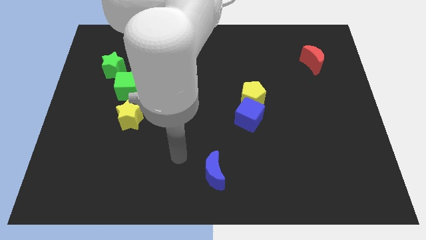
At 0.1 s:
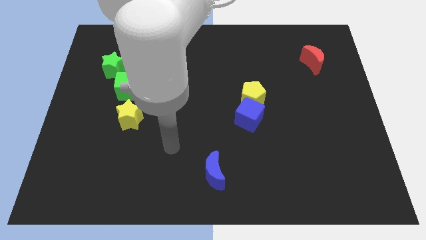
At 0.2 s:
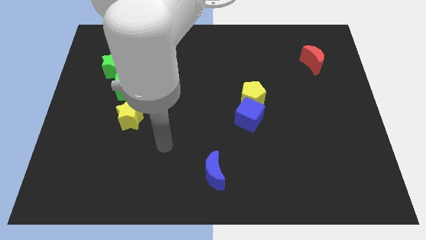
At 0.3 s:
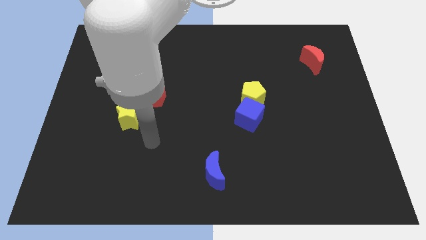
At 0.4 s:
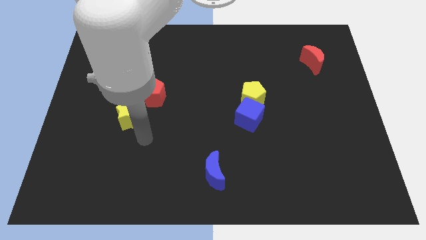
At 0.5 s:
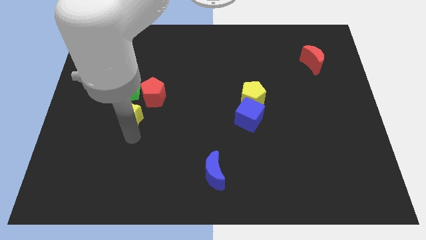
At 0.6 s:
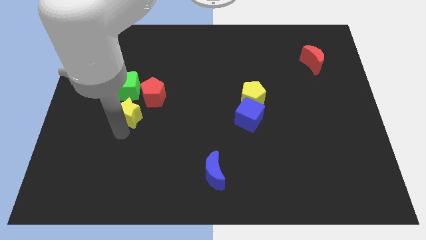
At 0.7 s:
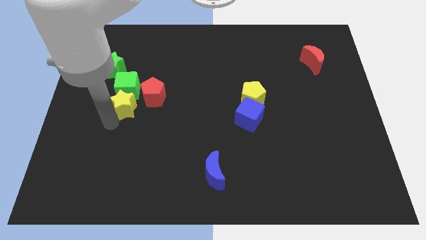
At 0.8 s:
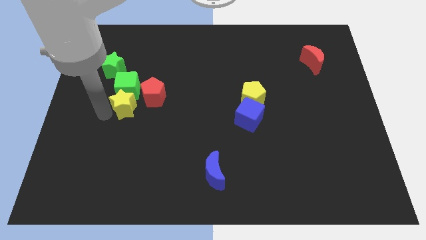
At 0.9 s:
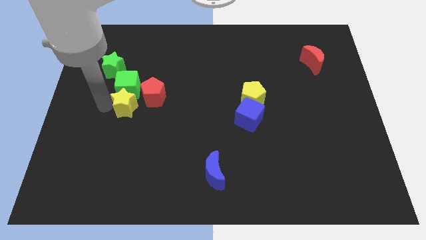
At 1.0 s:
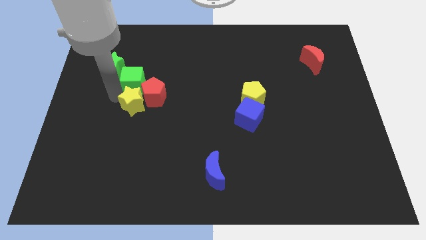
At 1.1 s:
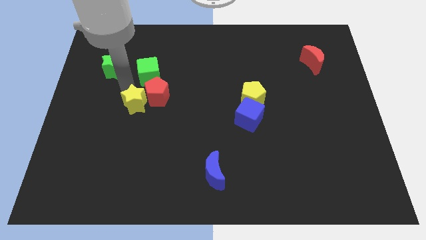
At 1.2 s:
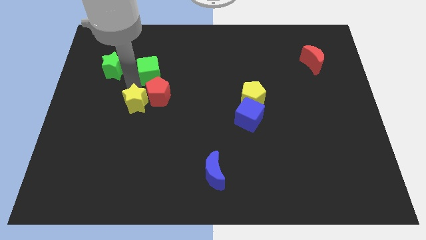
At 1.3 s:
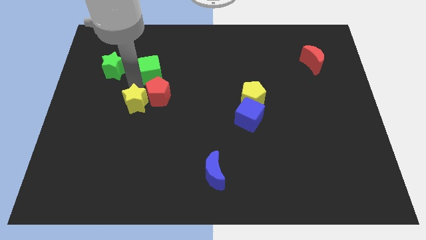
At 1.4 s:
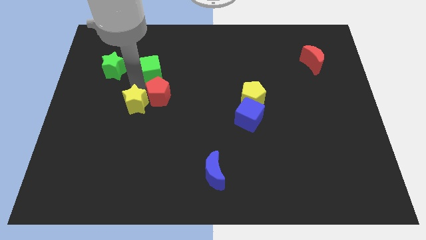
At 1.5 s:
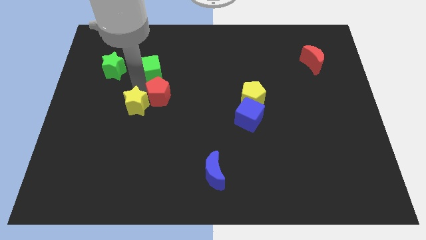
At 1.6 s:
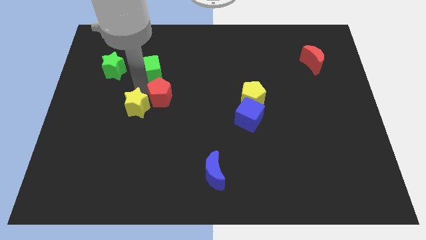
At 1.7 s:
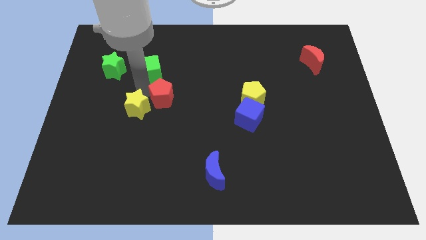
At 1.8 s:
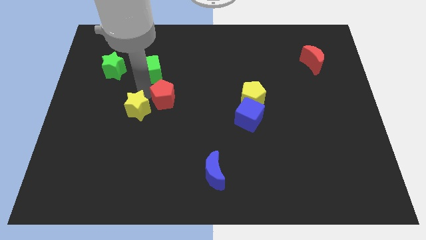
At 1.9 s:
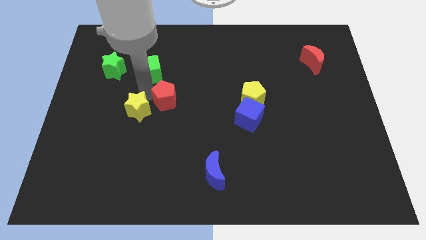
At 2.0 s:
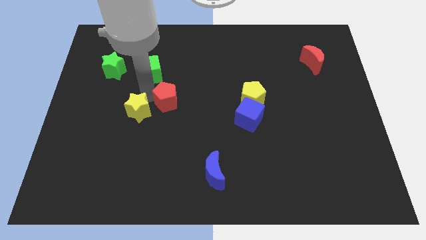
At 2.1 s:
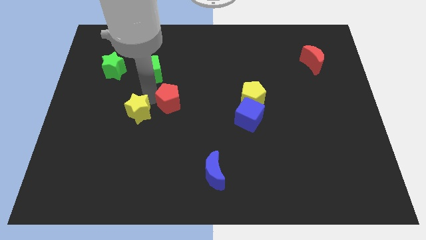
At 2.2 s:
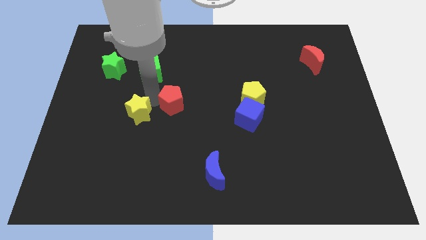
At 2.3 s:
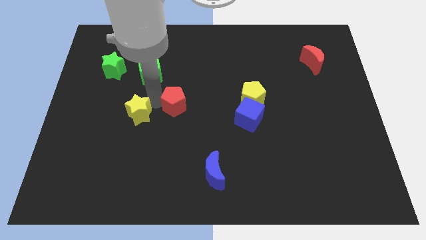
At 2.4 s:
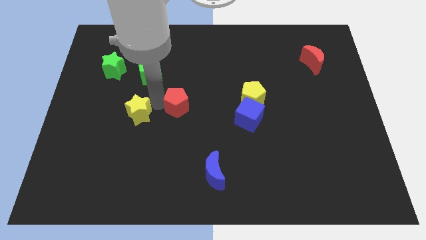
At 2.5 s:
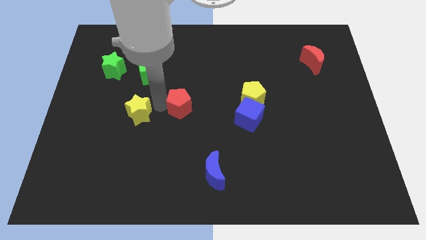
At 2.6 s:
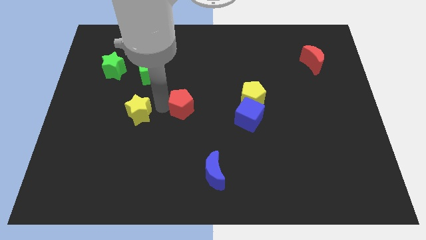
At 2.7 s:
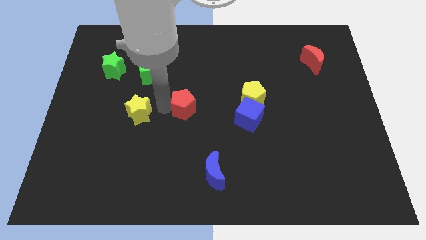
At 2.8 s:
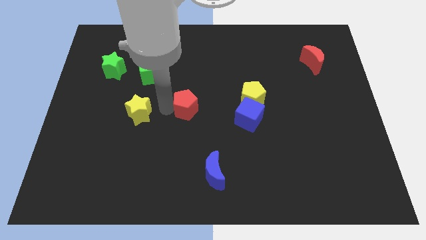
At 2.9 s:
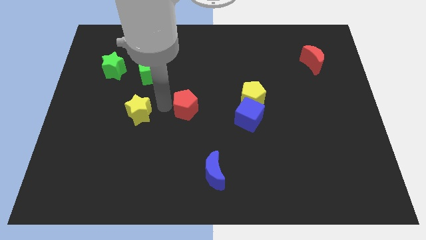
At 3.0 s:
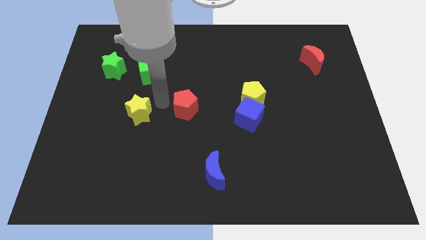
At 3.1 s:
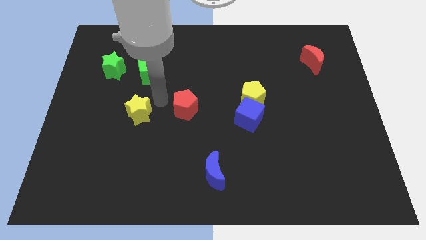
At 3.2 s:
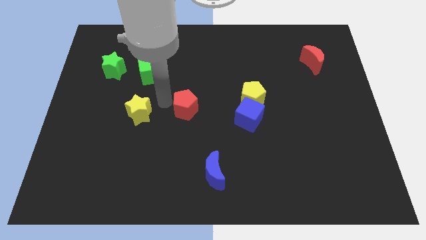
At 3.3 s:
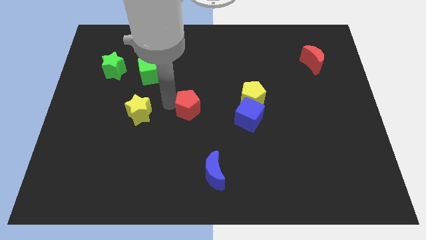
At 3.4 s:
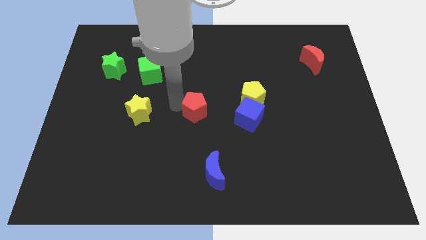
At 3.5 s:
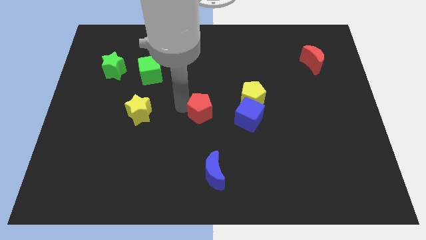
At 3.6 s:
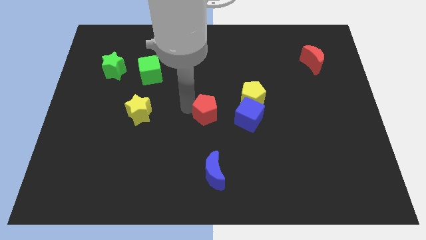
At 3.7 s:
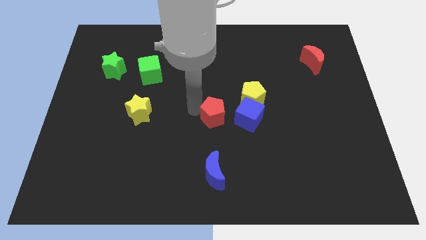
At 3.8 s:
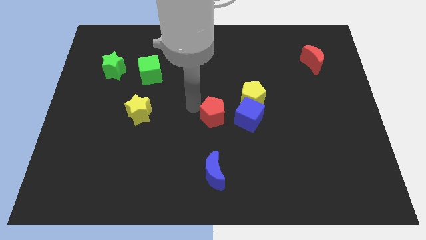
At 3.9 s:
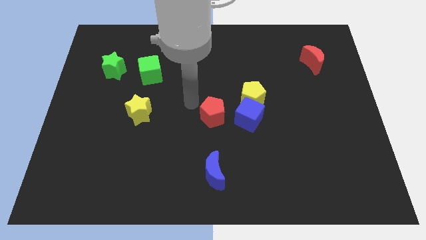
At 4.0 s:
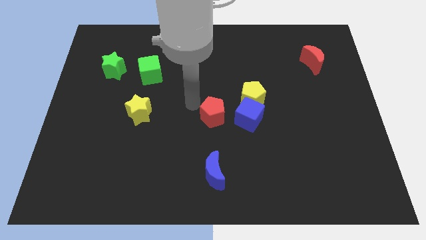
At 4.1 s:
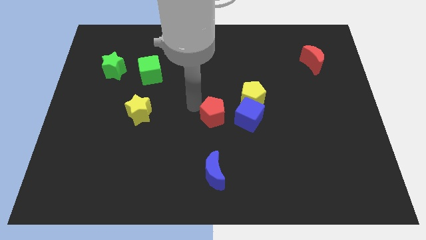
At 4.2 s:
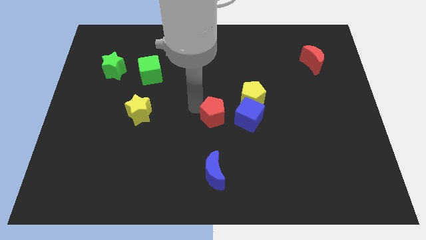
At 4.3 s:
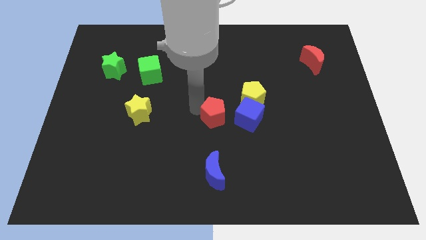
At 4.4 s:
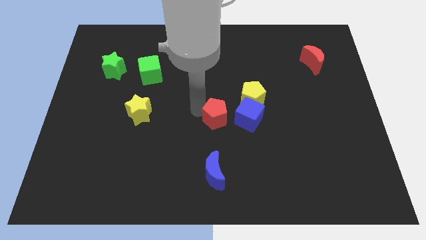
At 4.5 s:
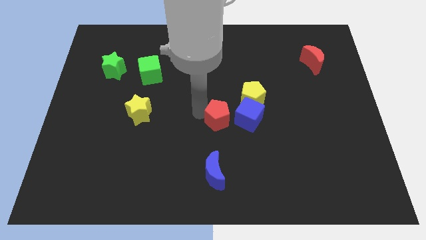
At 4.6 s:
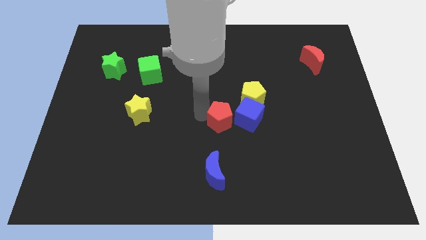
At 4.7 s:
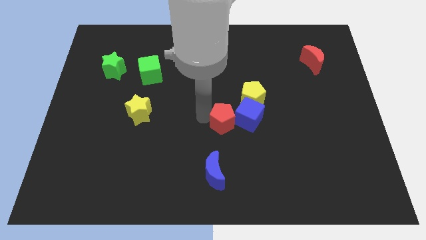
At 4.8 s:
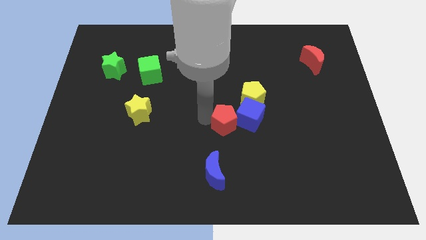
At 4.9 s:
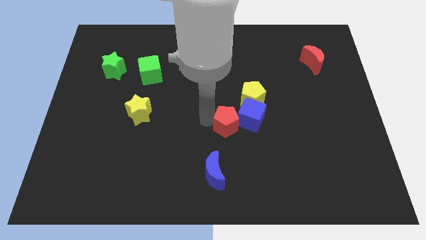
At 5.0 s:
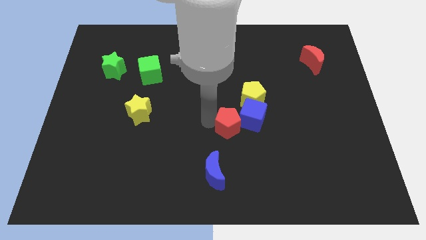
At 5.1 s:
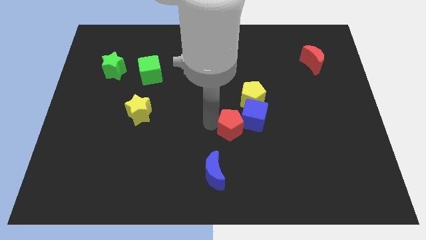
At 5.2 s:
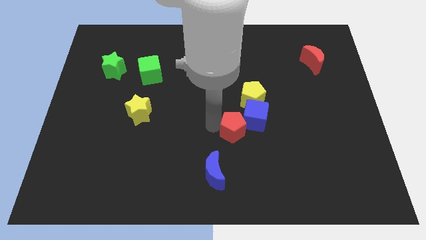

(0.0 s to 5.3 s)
push the red pentagon to the bottom of the yellow pentagon

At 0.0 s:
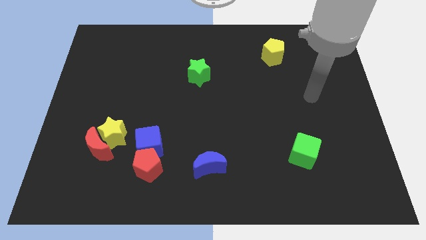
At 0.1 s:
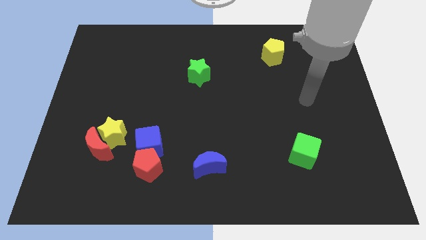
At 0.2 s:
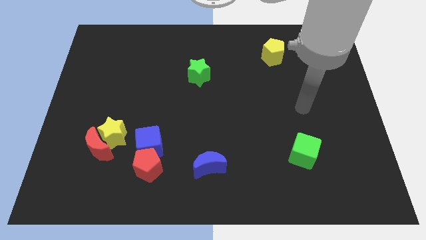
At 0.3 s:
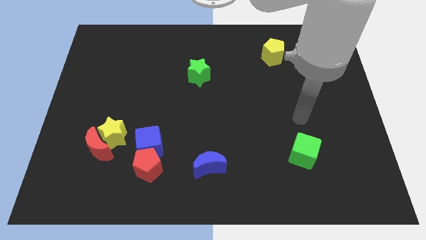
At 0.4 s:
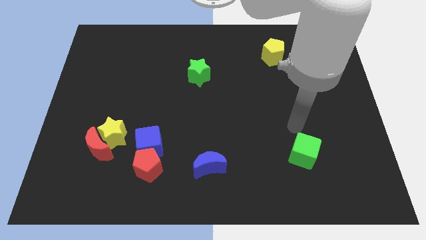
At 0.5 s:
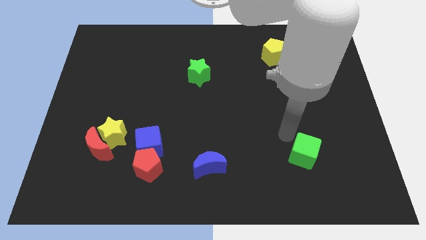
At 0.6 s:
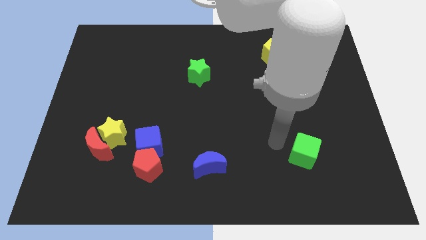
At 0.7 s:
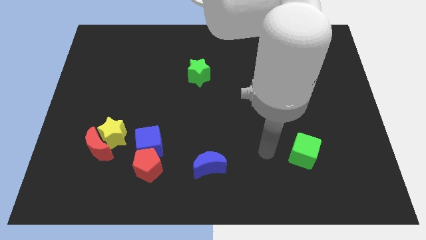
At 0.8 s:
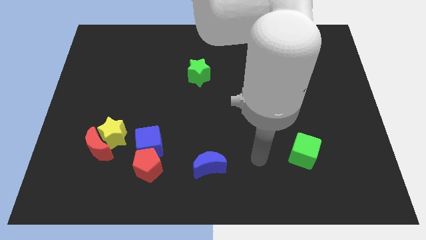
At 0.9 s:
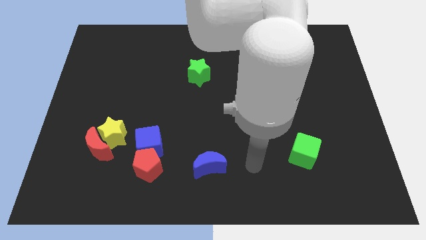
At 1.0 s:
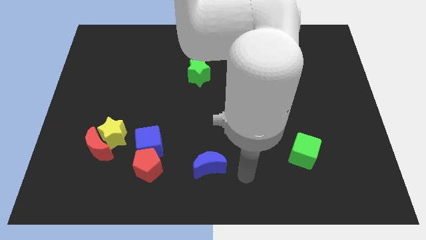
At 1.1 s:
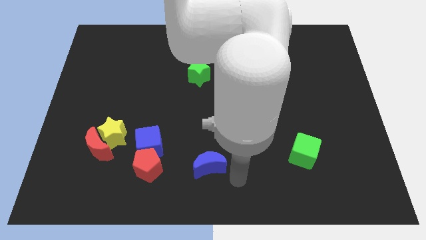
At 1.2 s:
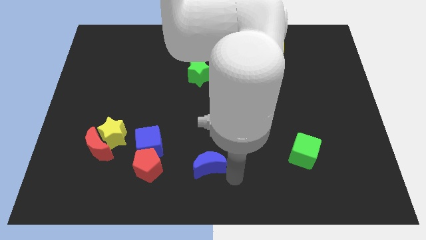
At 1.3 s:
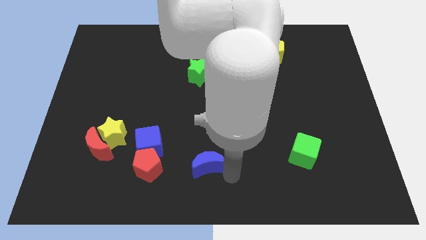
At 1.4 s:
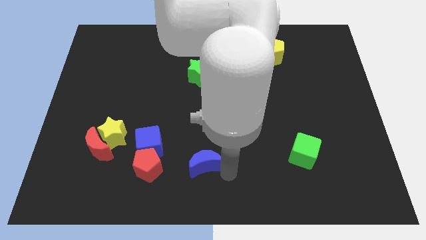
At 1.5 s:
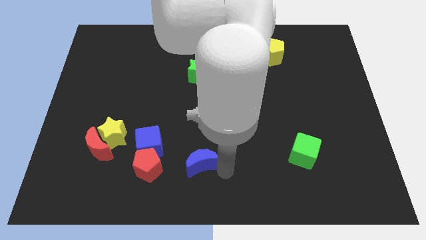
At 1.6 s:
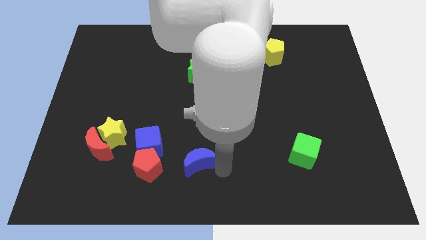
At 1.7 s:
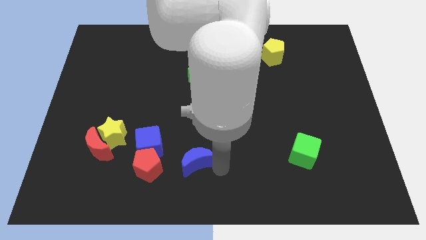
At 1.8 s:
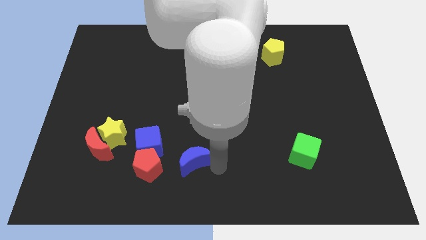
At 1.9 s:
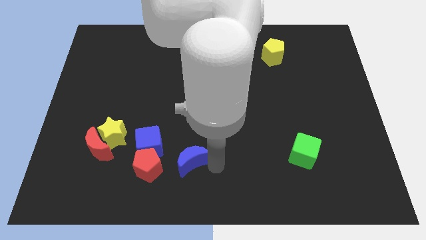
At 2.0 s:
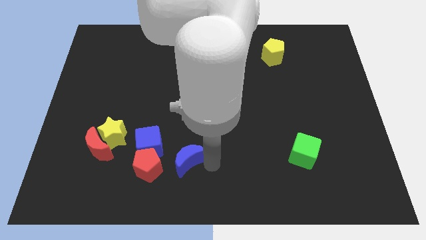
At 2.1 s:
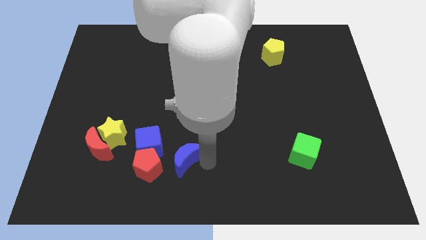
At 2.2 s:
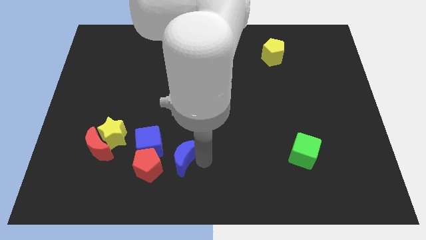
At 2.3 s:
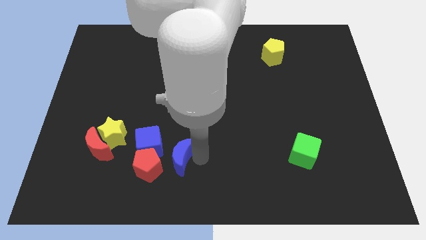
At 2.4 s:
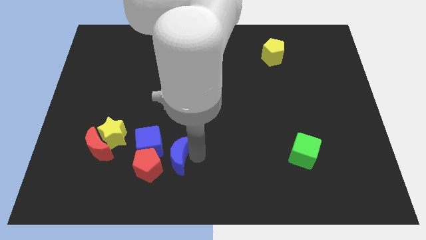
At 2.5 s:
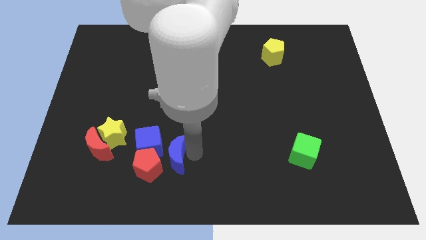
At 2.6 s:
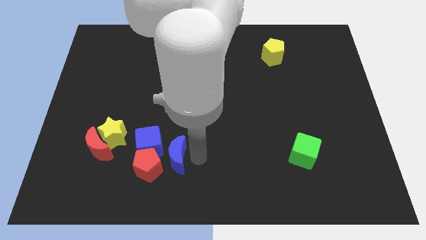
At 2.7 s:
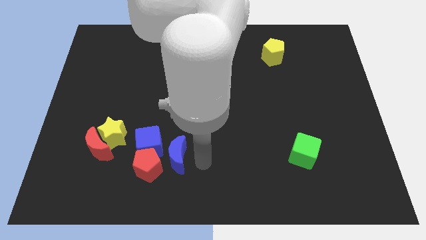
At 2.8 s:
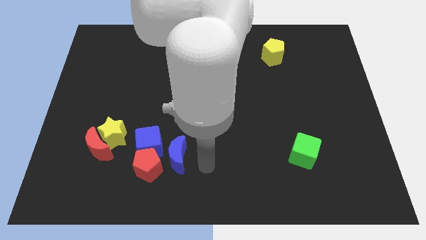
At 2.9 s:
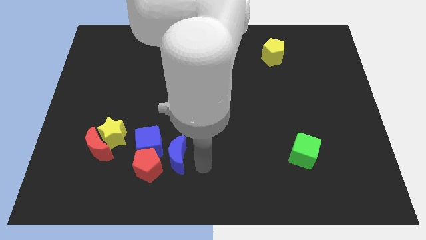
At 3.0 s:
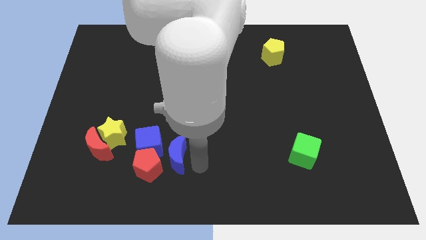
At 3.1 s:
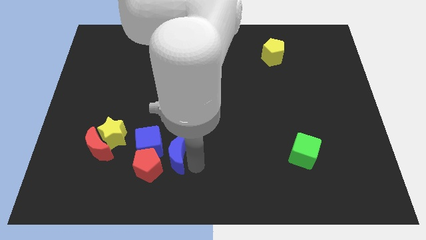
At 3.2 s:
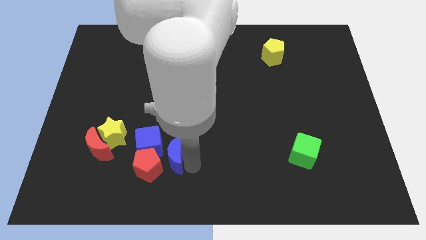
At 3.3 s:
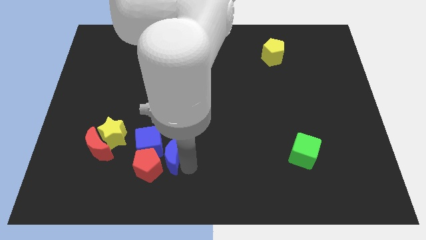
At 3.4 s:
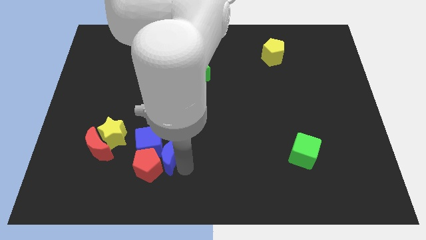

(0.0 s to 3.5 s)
push the blue moon to the right of the red moon
